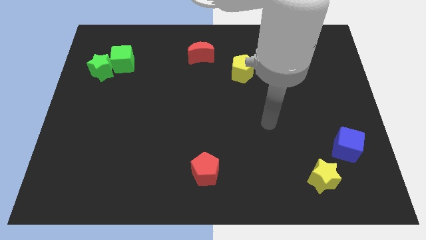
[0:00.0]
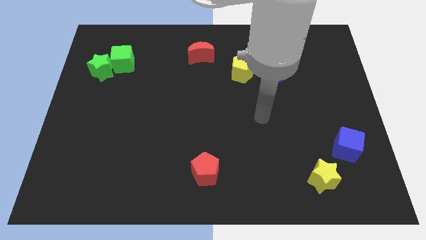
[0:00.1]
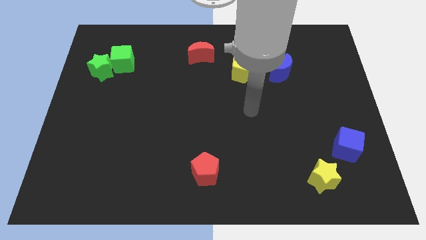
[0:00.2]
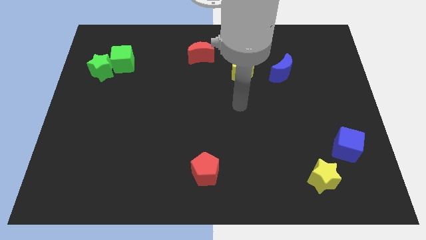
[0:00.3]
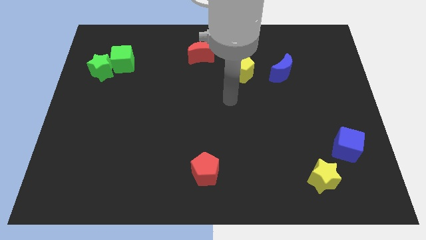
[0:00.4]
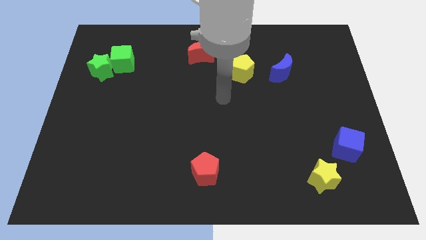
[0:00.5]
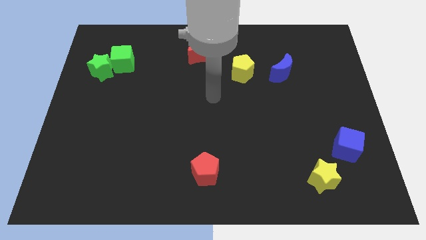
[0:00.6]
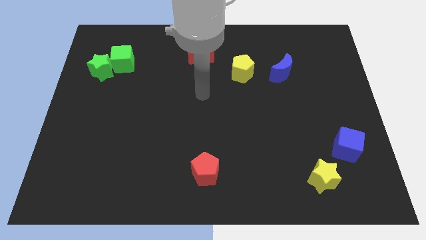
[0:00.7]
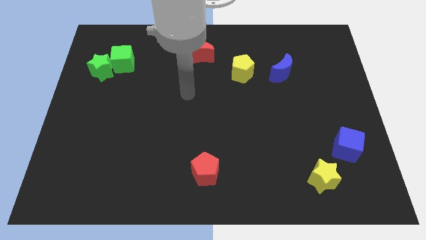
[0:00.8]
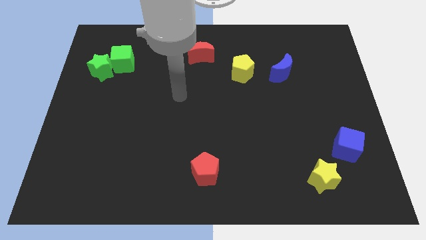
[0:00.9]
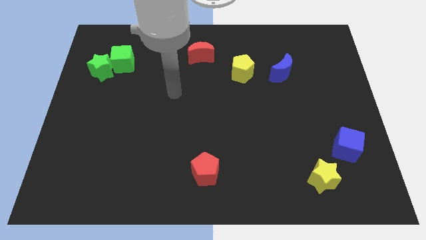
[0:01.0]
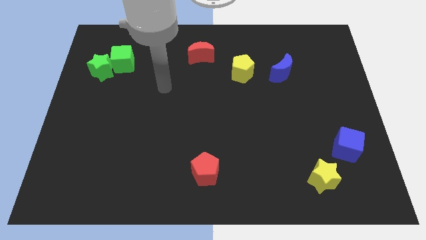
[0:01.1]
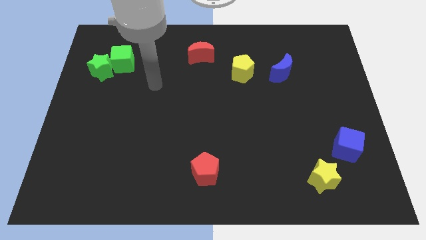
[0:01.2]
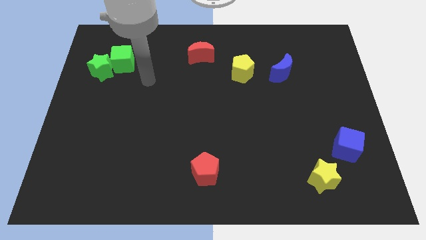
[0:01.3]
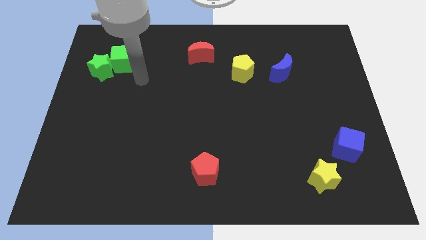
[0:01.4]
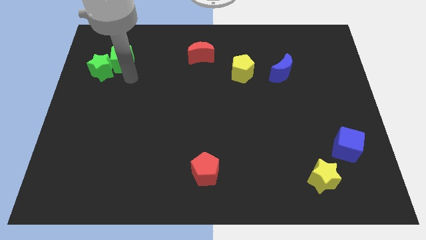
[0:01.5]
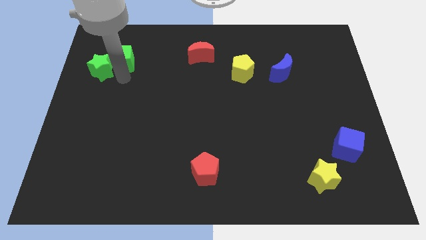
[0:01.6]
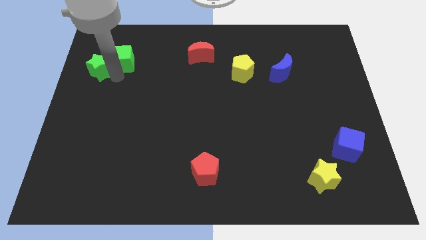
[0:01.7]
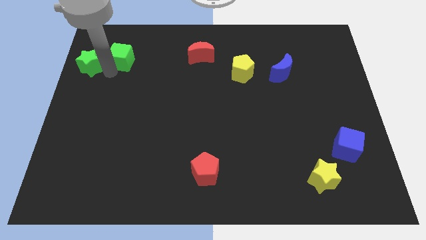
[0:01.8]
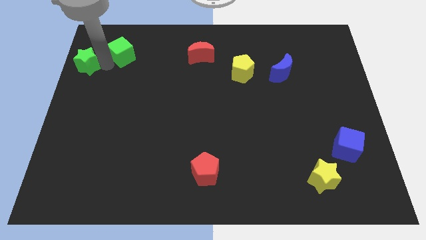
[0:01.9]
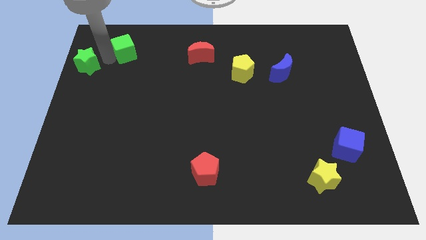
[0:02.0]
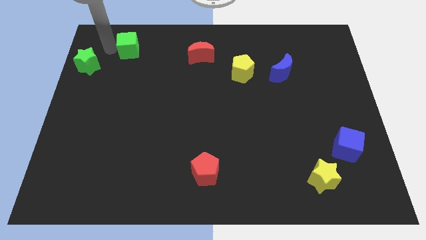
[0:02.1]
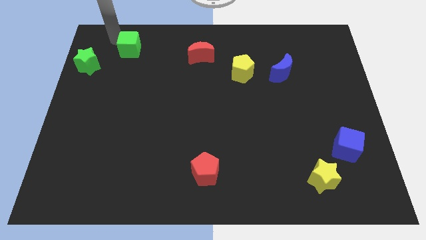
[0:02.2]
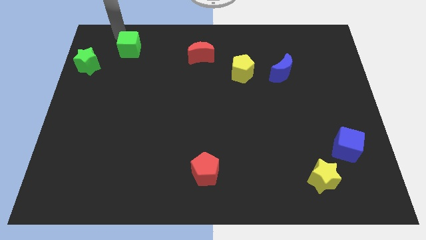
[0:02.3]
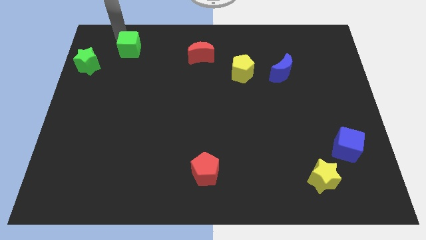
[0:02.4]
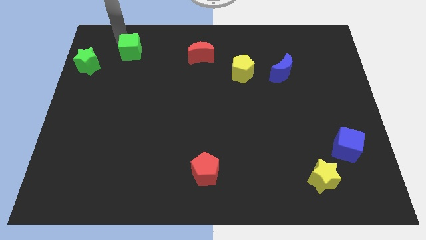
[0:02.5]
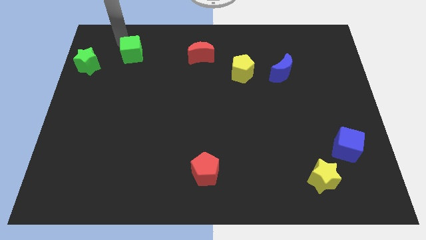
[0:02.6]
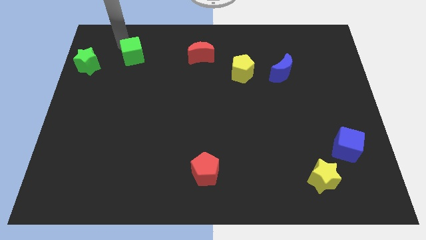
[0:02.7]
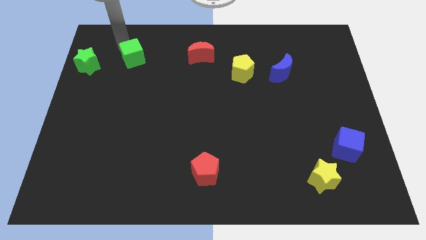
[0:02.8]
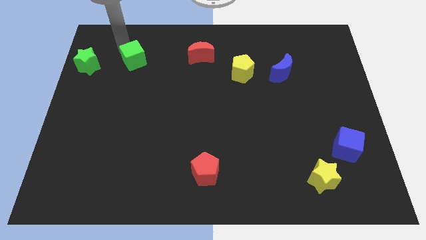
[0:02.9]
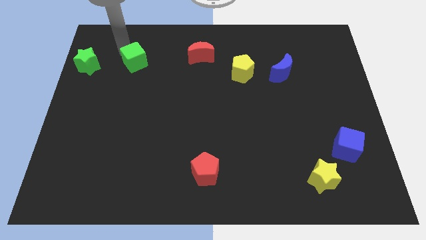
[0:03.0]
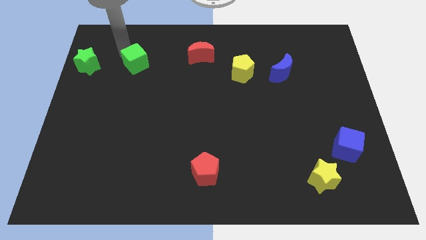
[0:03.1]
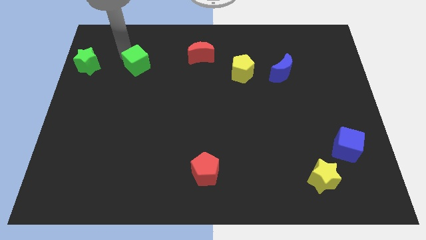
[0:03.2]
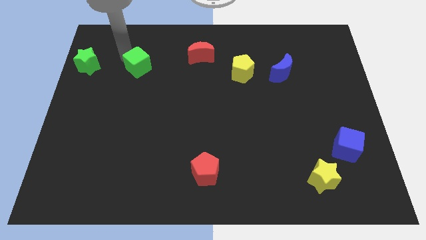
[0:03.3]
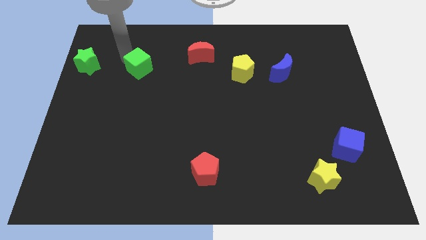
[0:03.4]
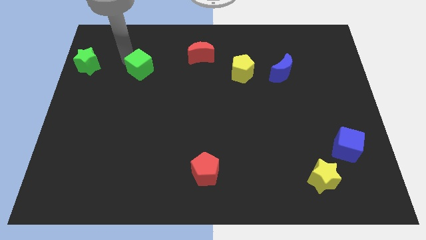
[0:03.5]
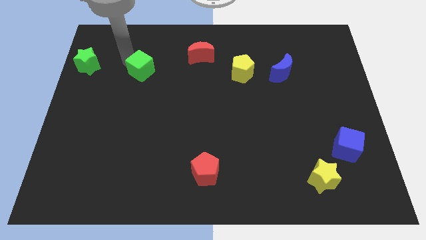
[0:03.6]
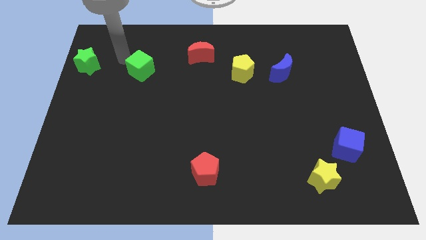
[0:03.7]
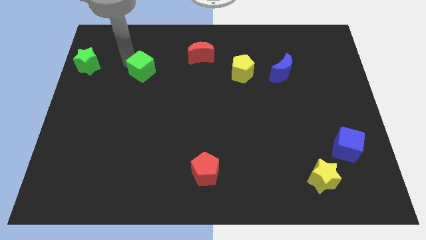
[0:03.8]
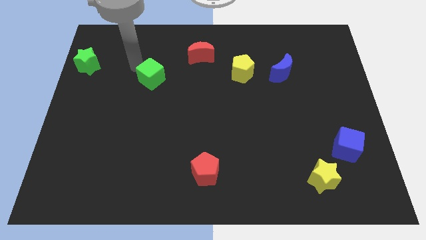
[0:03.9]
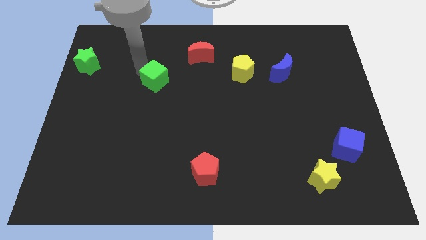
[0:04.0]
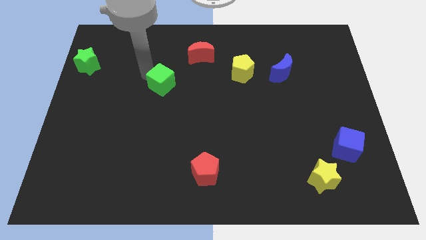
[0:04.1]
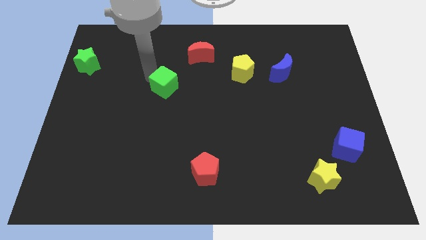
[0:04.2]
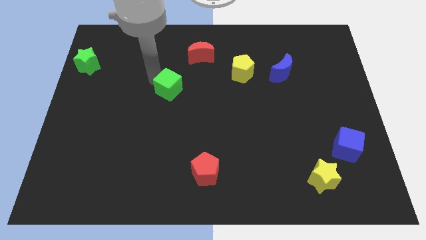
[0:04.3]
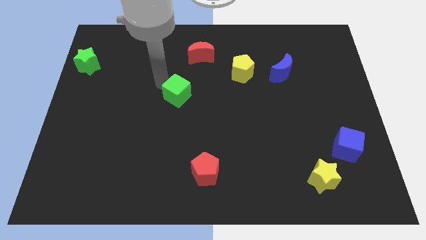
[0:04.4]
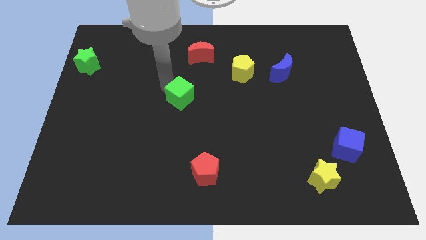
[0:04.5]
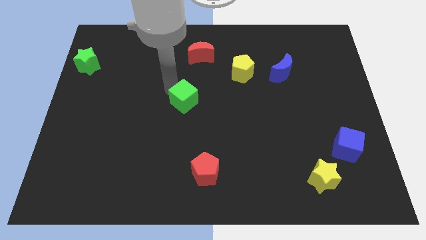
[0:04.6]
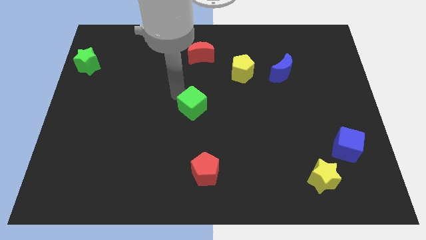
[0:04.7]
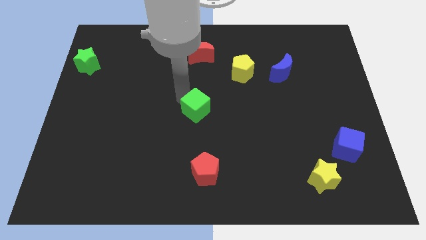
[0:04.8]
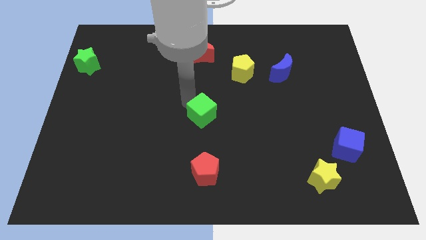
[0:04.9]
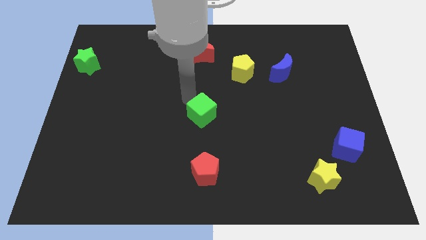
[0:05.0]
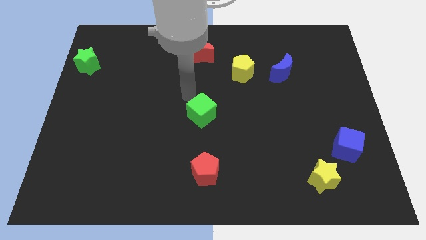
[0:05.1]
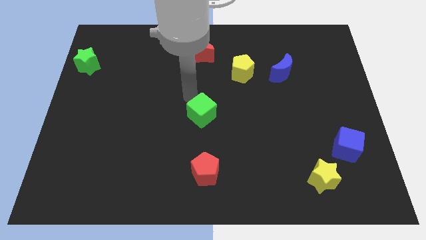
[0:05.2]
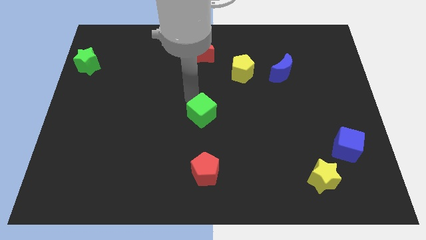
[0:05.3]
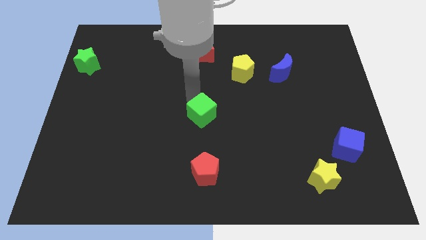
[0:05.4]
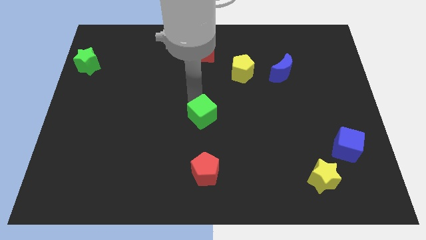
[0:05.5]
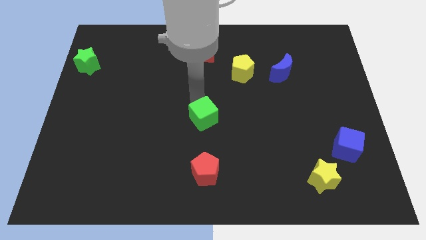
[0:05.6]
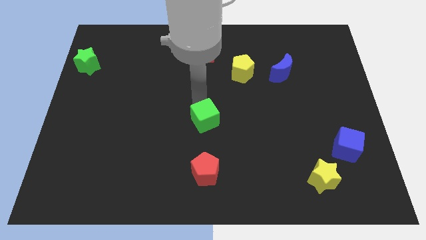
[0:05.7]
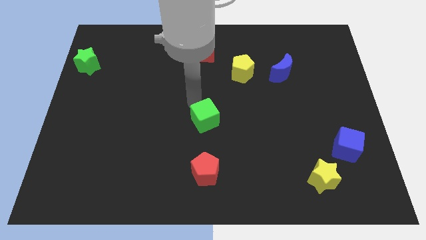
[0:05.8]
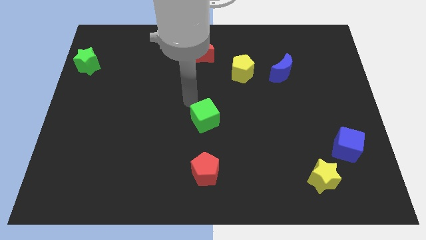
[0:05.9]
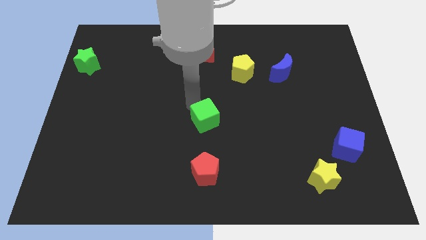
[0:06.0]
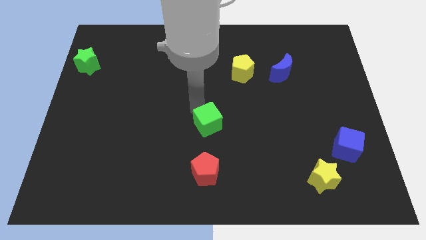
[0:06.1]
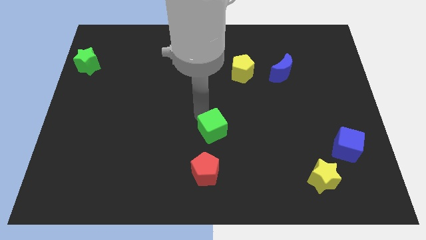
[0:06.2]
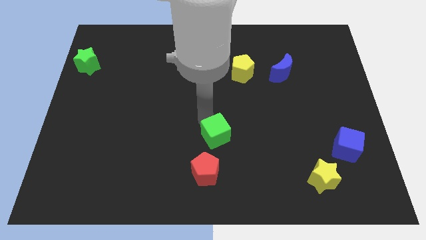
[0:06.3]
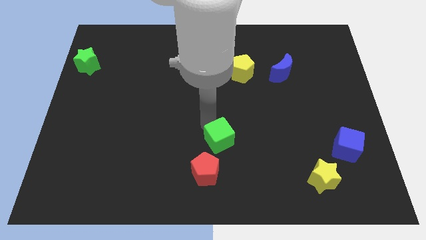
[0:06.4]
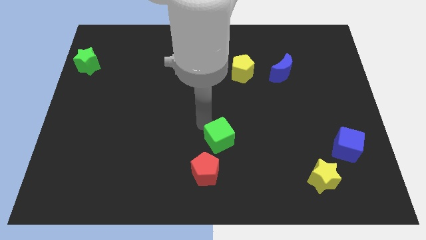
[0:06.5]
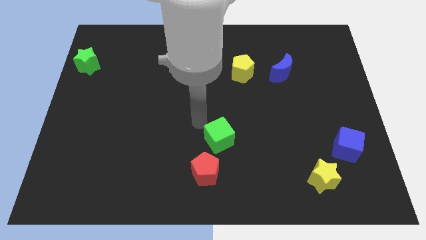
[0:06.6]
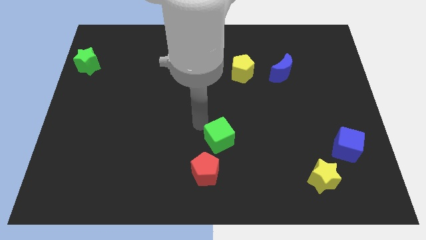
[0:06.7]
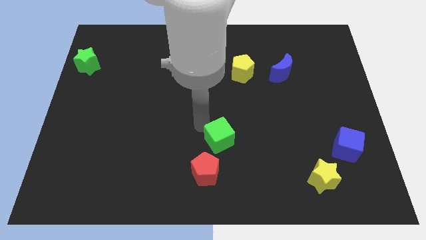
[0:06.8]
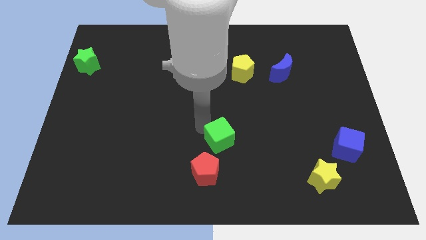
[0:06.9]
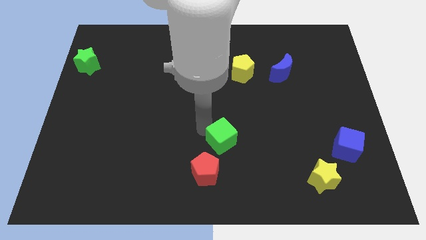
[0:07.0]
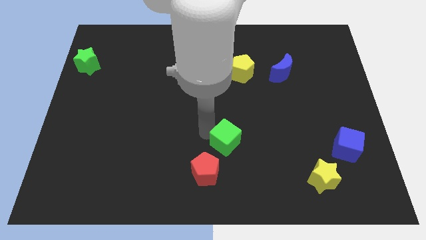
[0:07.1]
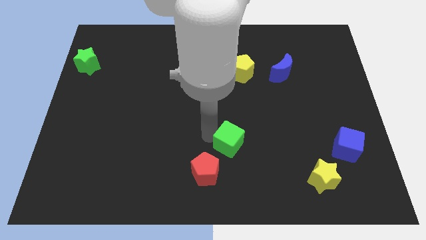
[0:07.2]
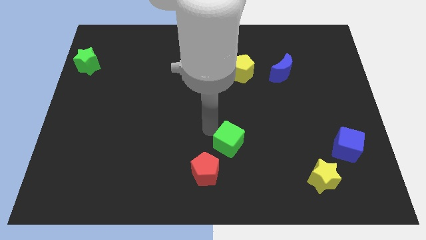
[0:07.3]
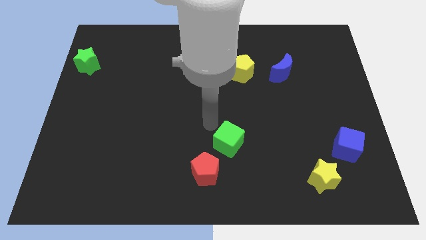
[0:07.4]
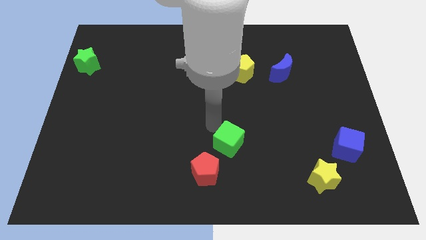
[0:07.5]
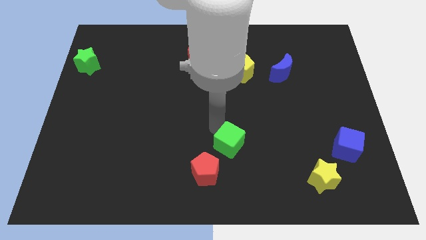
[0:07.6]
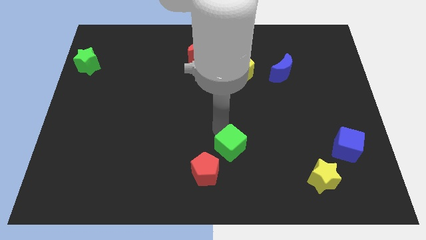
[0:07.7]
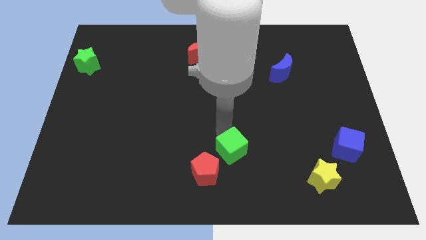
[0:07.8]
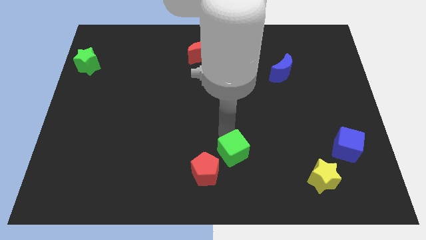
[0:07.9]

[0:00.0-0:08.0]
slide the green cube to the right side of the red pentagon
